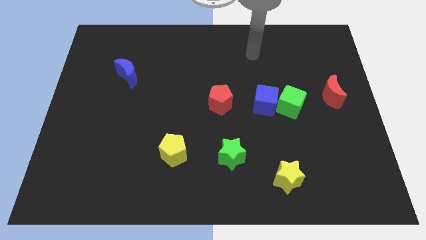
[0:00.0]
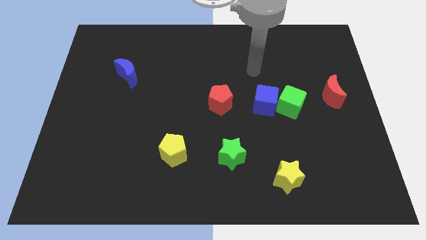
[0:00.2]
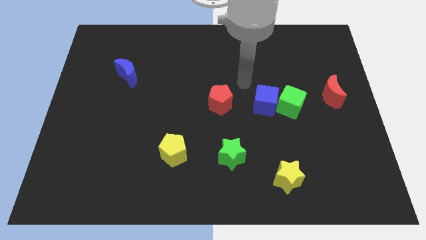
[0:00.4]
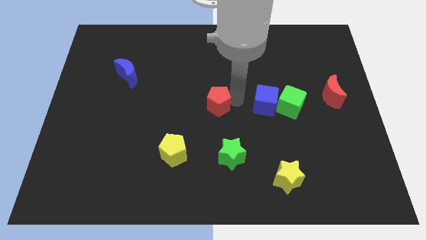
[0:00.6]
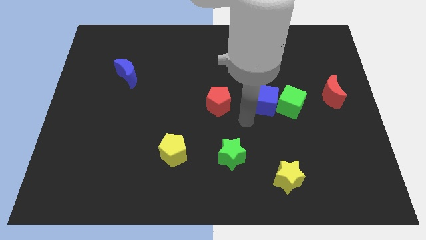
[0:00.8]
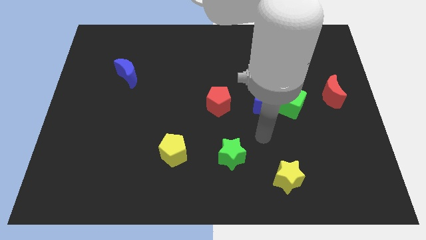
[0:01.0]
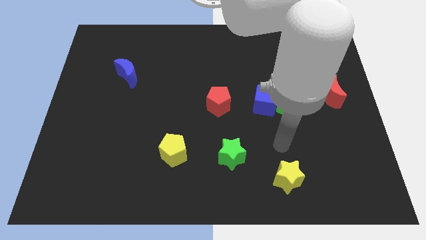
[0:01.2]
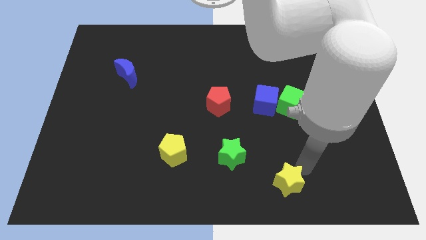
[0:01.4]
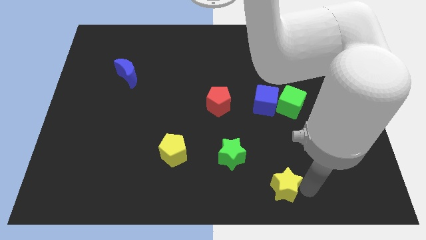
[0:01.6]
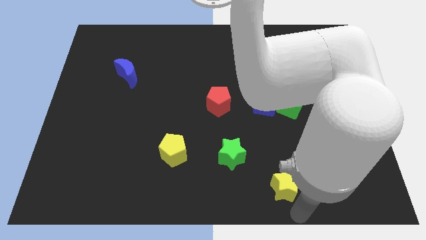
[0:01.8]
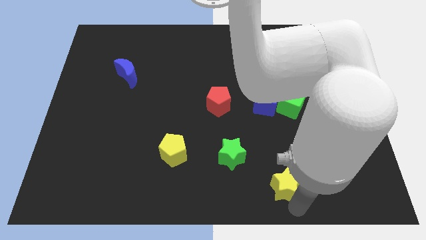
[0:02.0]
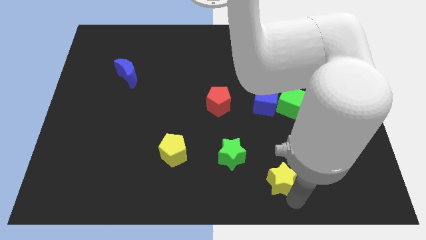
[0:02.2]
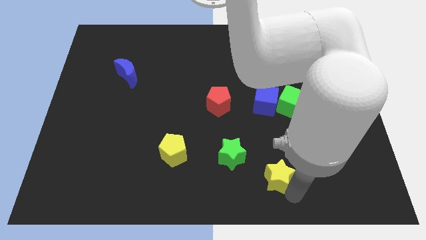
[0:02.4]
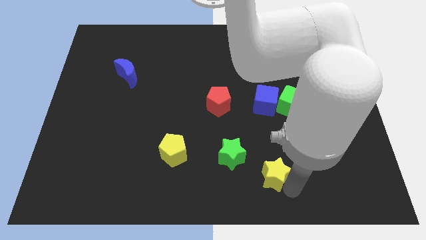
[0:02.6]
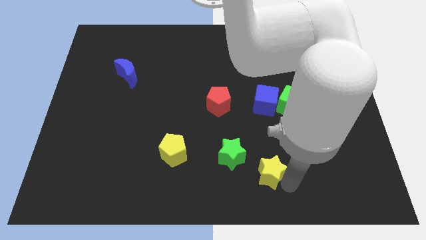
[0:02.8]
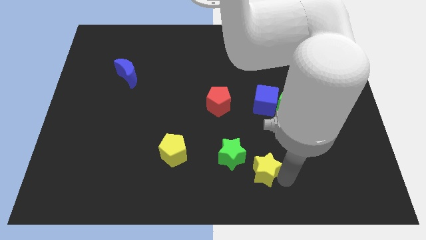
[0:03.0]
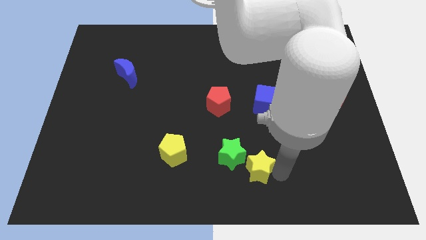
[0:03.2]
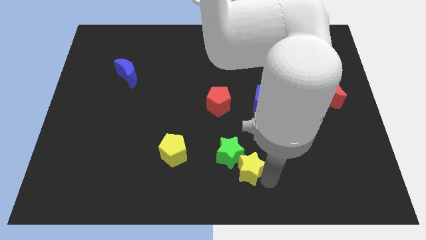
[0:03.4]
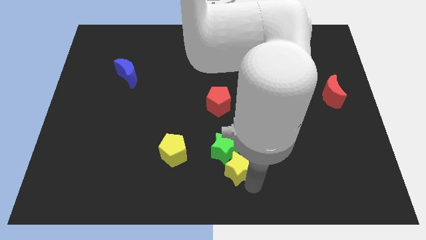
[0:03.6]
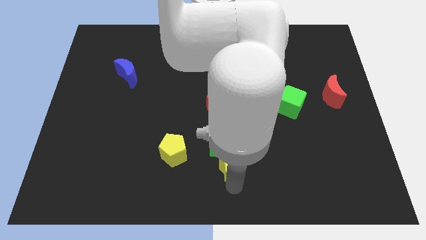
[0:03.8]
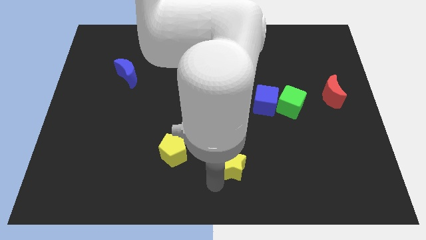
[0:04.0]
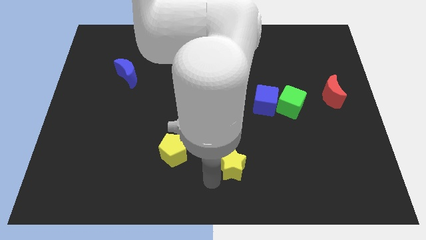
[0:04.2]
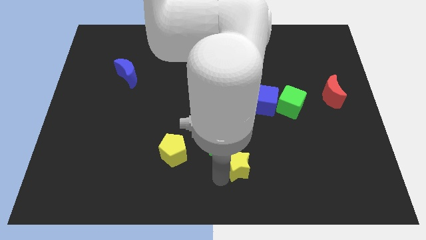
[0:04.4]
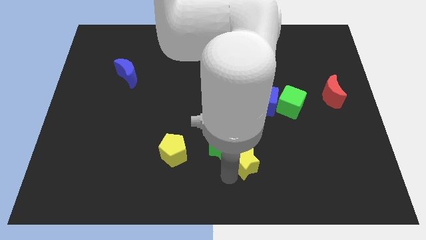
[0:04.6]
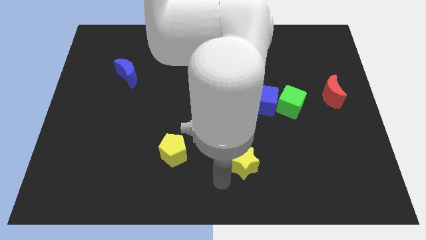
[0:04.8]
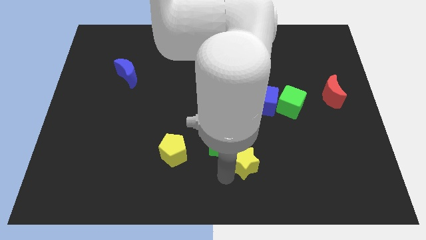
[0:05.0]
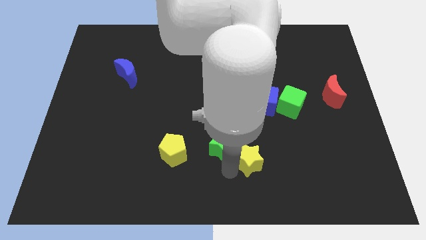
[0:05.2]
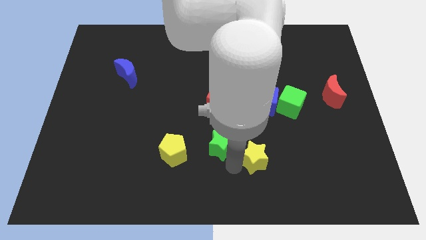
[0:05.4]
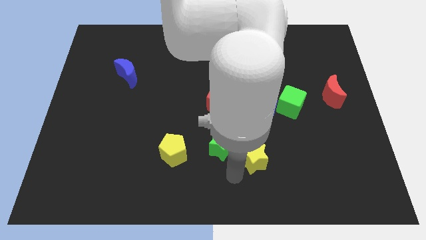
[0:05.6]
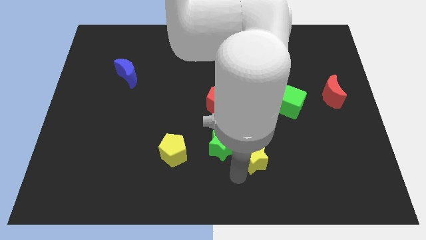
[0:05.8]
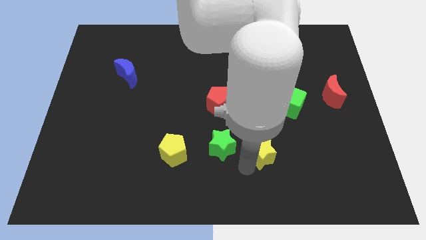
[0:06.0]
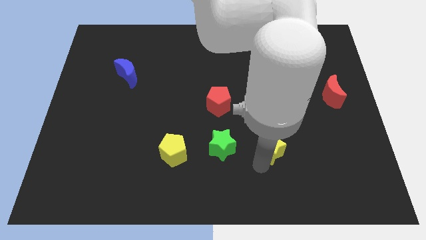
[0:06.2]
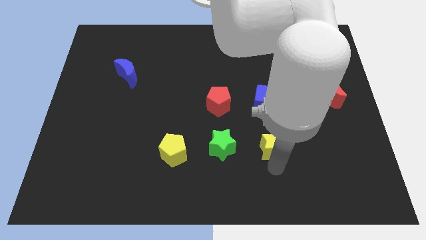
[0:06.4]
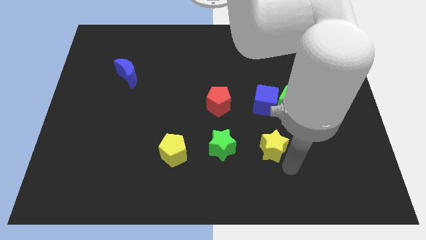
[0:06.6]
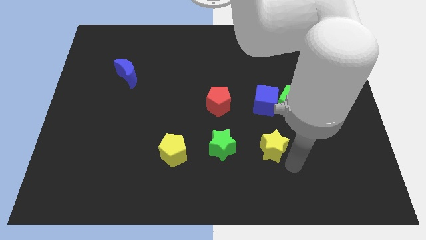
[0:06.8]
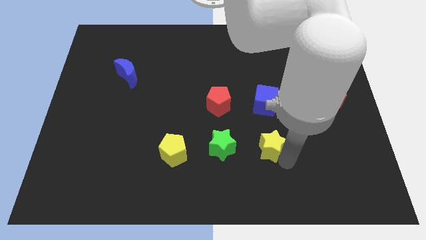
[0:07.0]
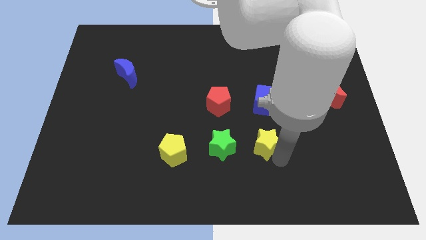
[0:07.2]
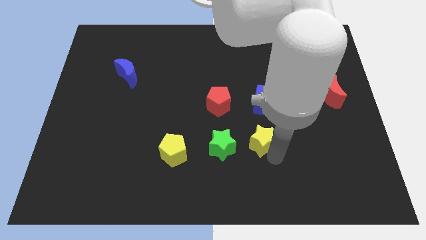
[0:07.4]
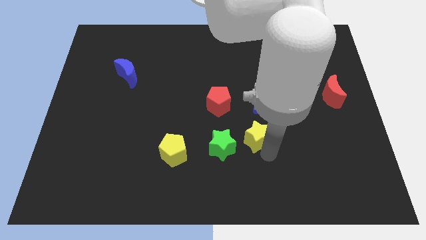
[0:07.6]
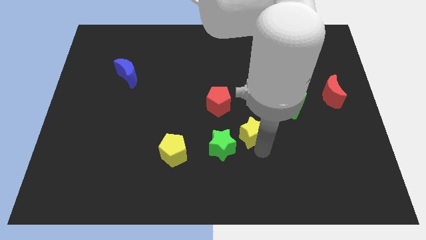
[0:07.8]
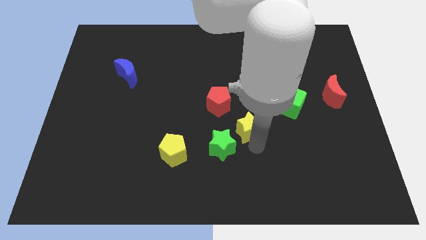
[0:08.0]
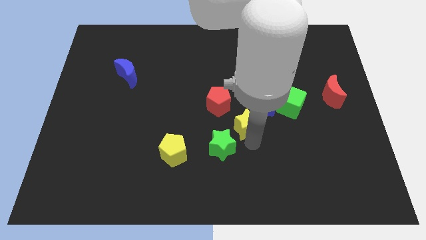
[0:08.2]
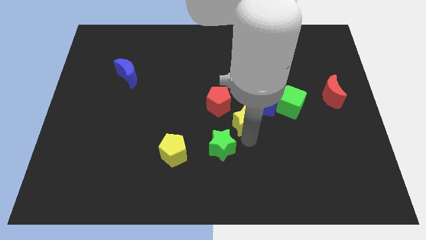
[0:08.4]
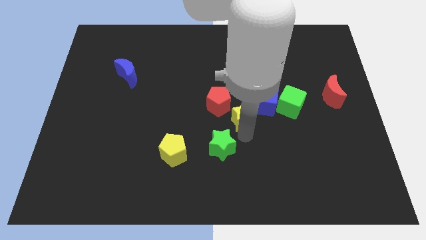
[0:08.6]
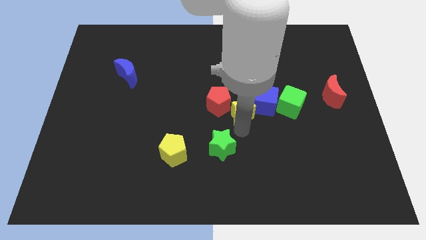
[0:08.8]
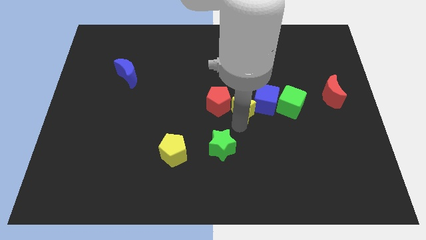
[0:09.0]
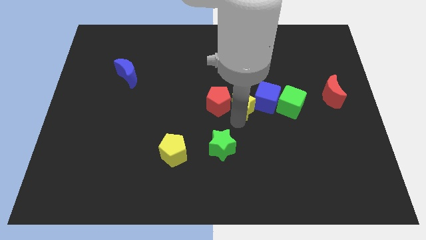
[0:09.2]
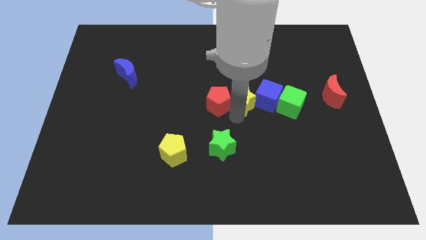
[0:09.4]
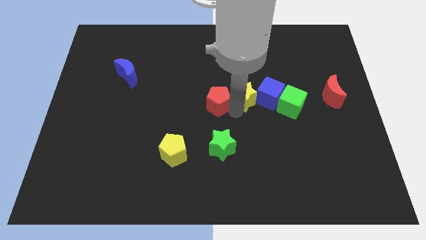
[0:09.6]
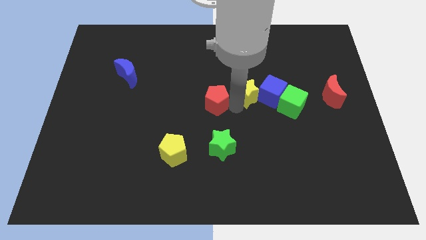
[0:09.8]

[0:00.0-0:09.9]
push the yellow star upwards

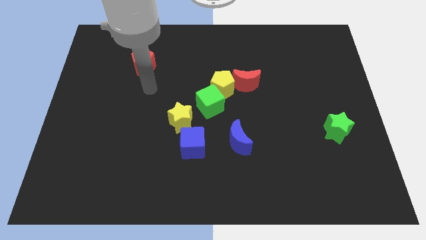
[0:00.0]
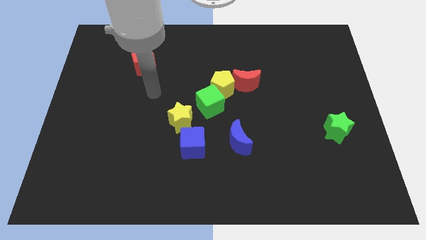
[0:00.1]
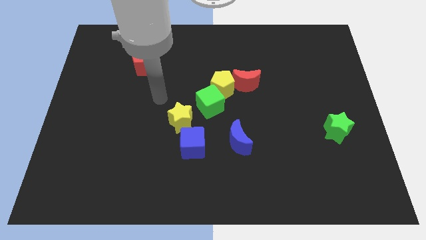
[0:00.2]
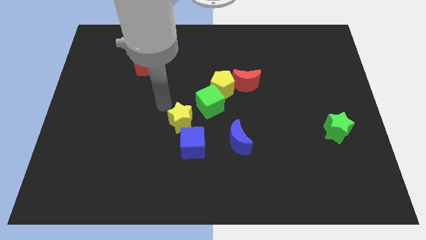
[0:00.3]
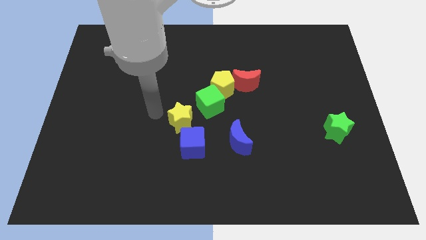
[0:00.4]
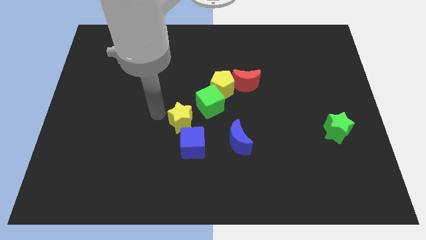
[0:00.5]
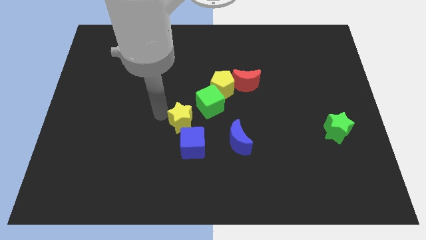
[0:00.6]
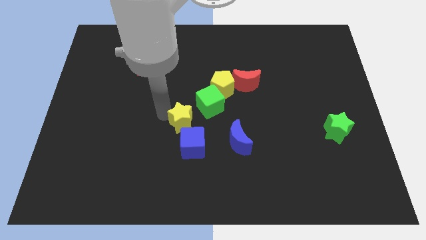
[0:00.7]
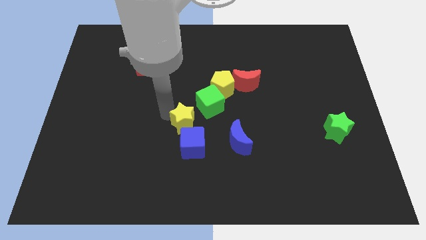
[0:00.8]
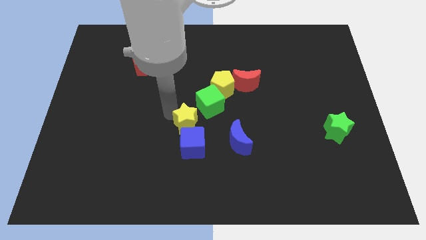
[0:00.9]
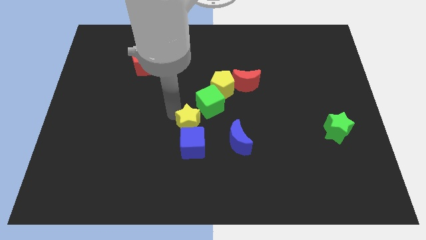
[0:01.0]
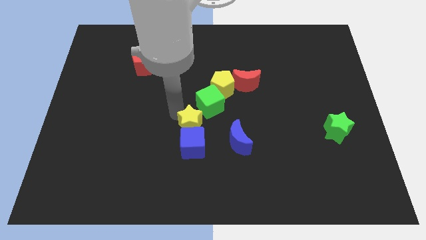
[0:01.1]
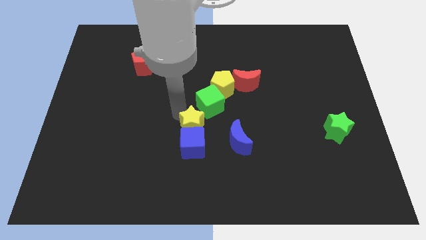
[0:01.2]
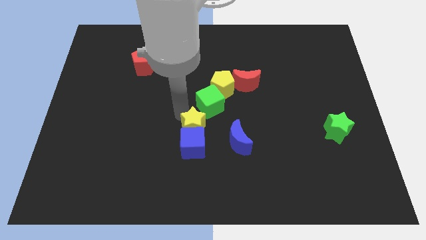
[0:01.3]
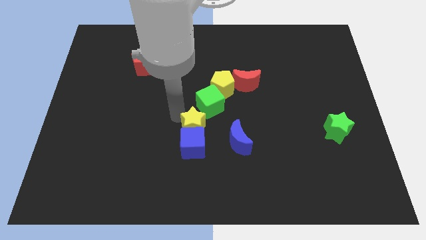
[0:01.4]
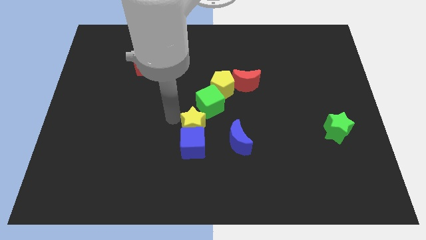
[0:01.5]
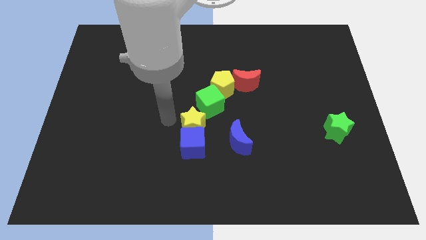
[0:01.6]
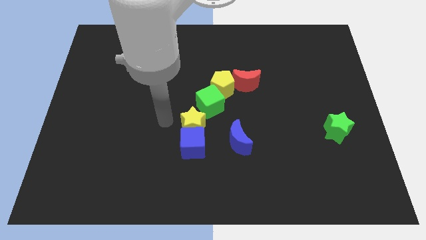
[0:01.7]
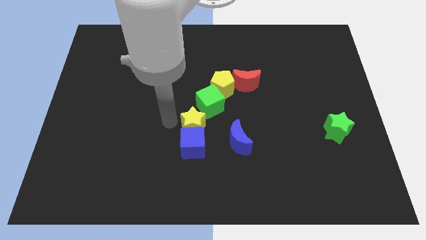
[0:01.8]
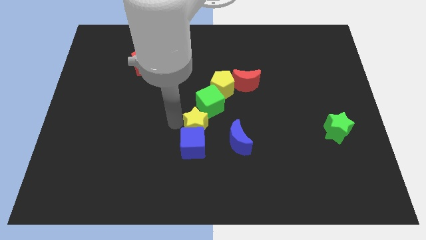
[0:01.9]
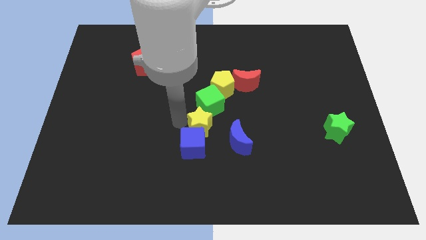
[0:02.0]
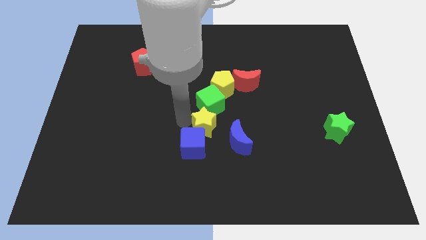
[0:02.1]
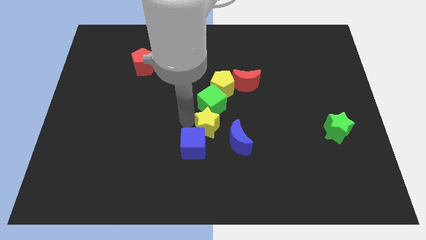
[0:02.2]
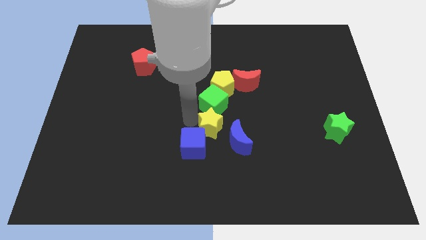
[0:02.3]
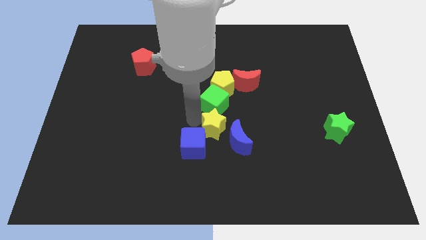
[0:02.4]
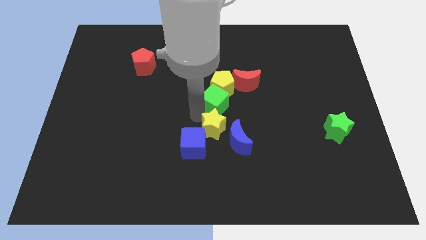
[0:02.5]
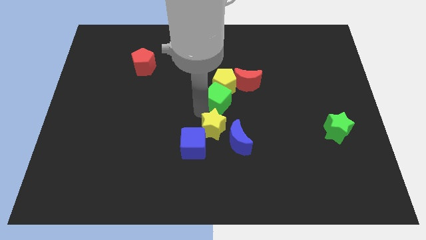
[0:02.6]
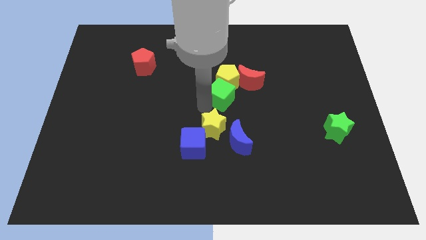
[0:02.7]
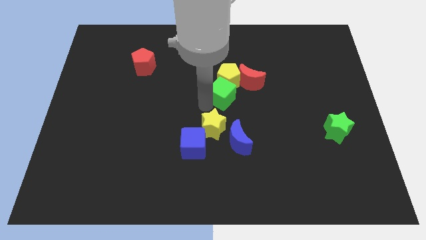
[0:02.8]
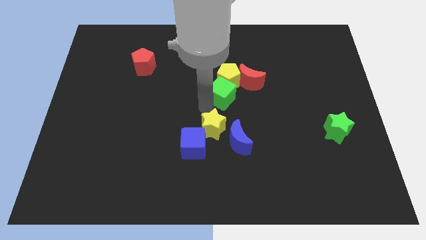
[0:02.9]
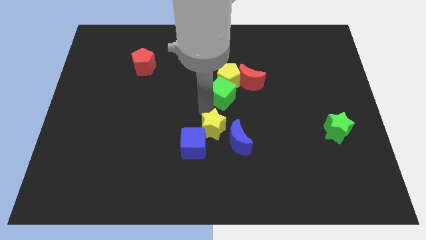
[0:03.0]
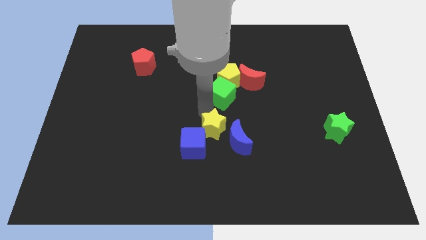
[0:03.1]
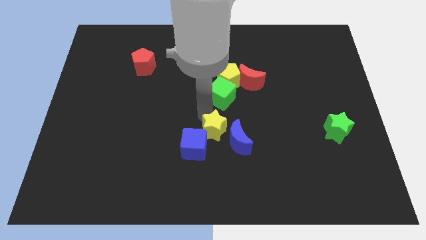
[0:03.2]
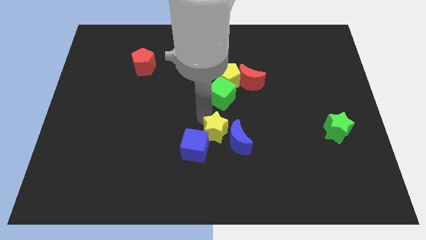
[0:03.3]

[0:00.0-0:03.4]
push the yellow star a little bit downwards and then to the right

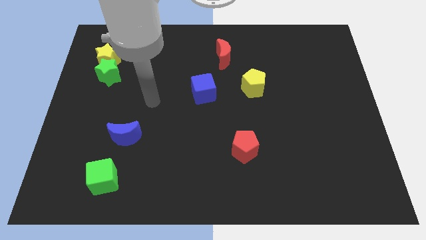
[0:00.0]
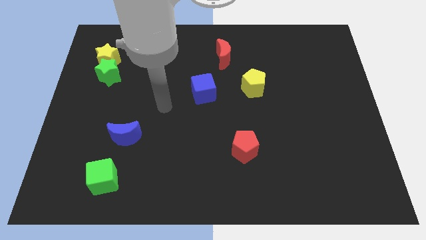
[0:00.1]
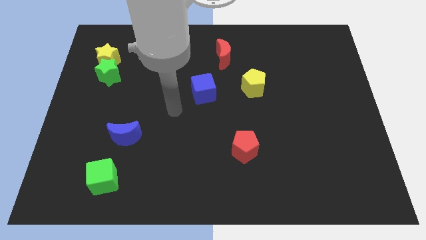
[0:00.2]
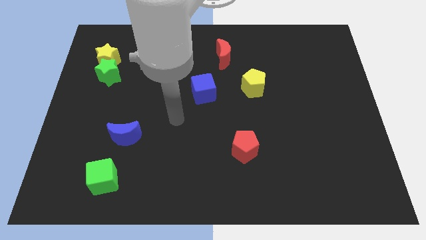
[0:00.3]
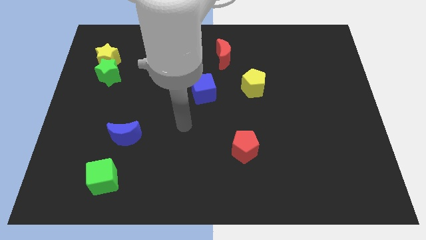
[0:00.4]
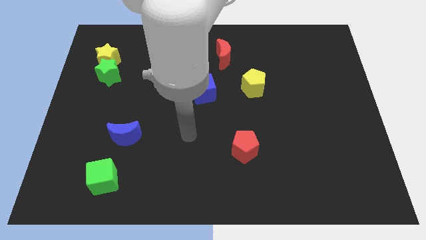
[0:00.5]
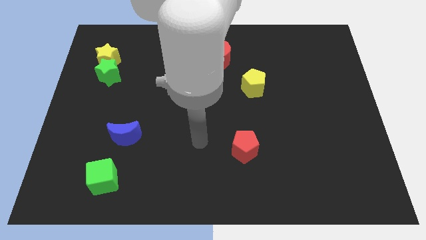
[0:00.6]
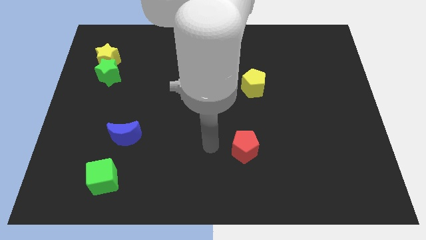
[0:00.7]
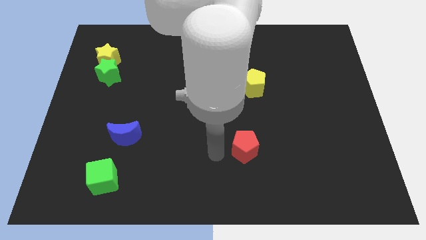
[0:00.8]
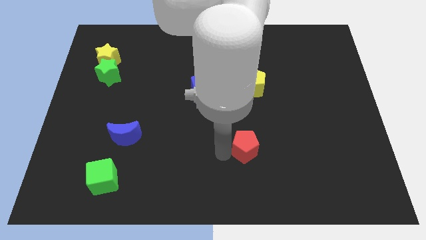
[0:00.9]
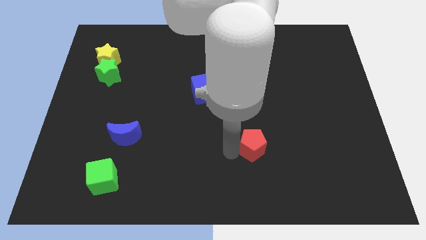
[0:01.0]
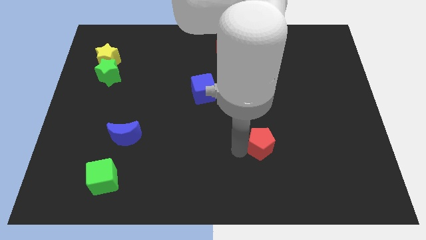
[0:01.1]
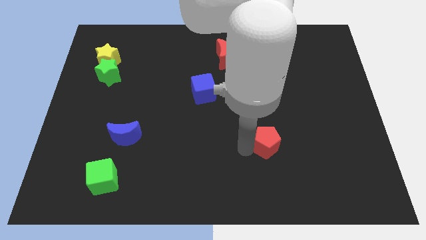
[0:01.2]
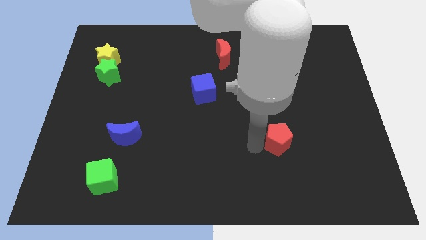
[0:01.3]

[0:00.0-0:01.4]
move the red pentagon right slightly
